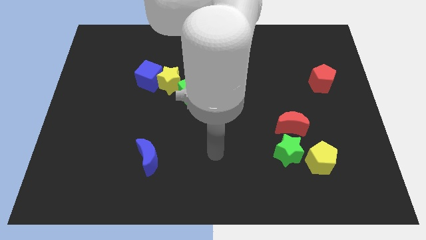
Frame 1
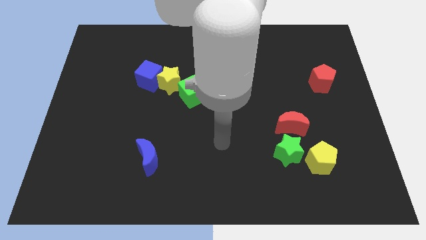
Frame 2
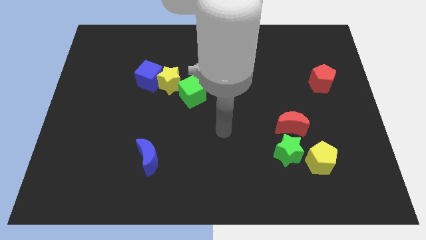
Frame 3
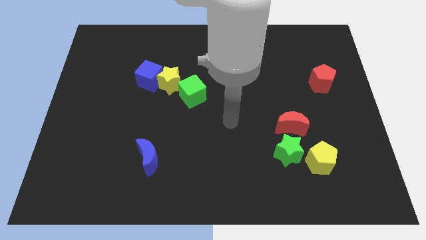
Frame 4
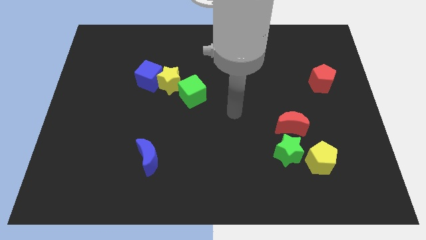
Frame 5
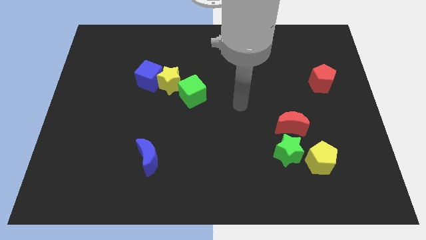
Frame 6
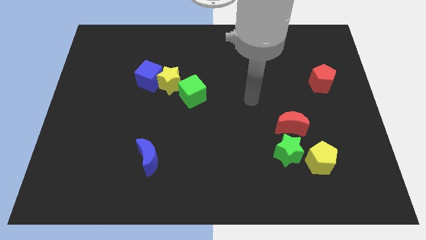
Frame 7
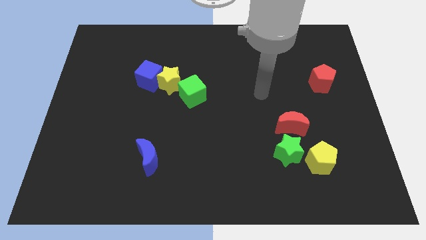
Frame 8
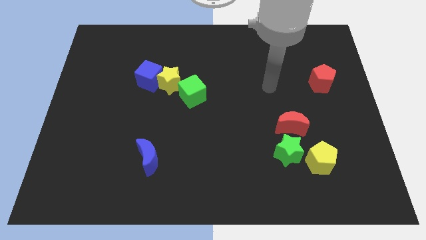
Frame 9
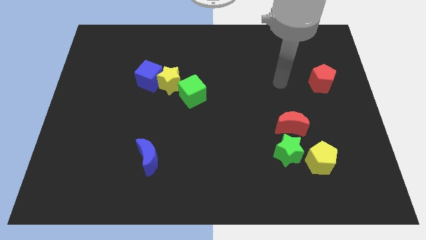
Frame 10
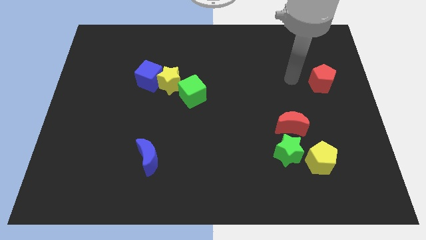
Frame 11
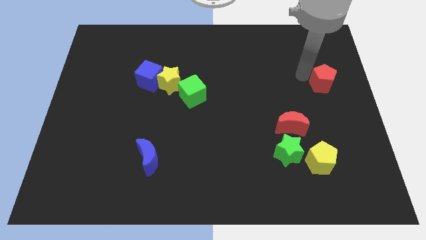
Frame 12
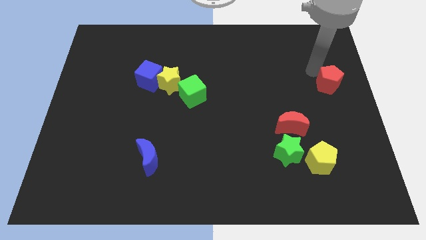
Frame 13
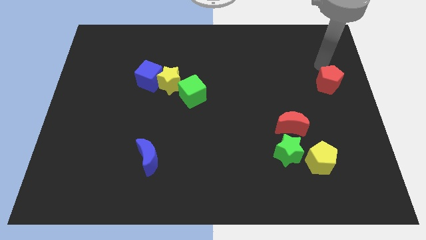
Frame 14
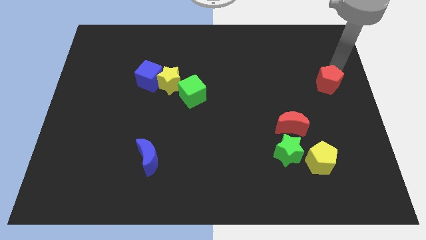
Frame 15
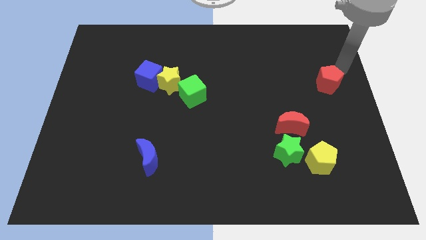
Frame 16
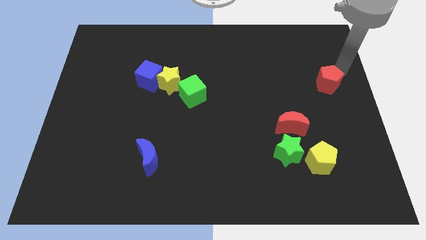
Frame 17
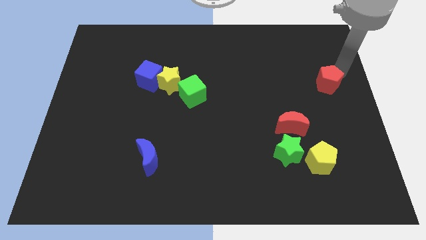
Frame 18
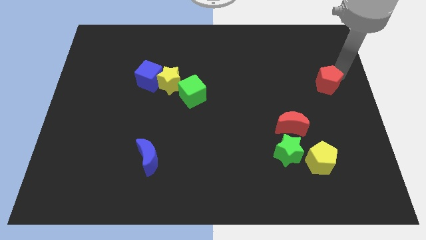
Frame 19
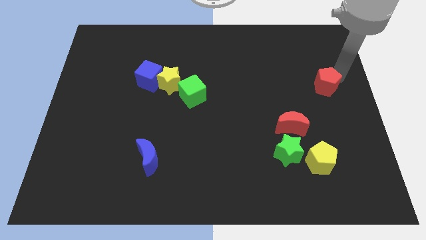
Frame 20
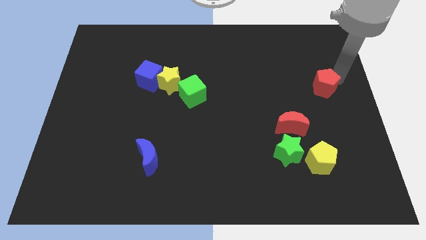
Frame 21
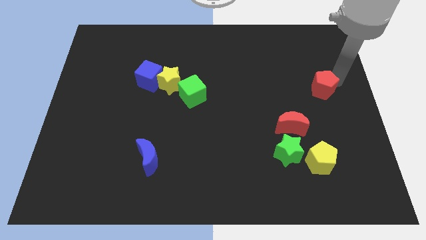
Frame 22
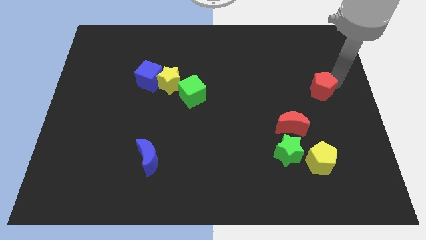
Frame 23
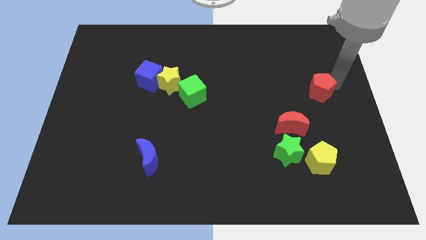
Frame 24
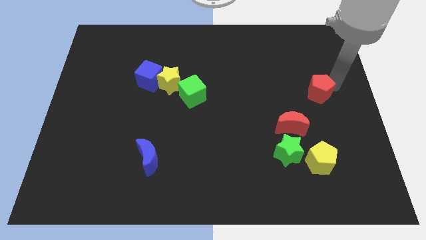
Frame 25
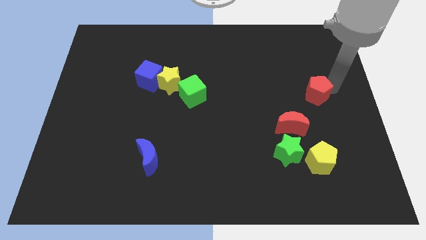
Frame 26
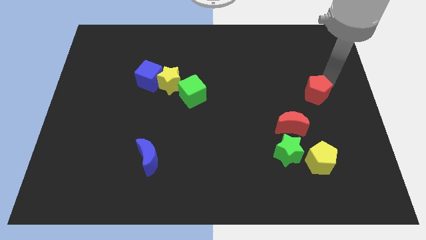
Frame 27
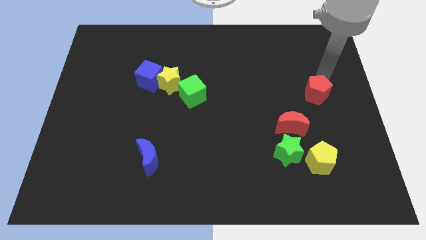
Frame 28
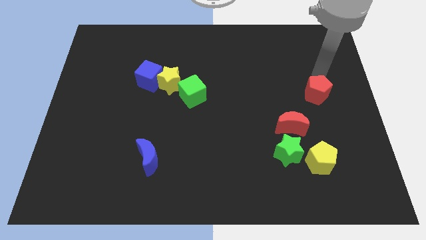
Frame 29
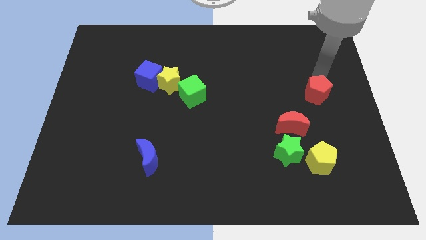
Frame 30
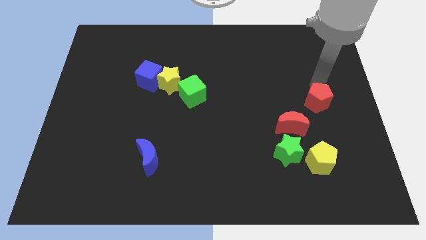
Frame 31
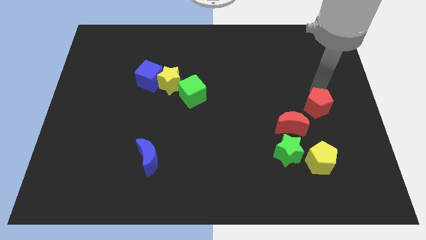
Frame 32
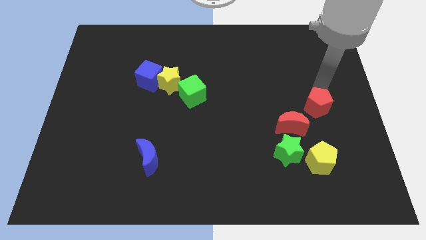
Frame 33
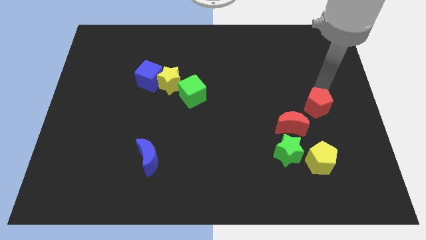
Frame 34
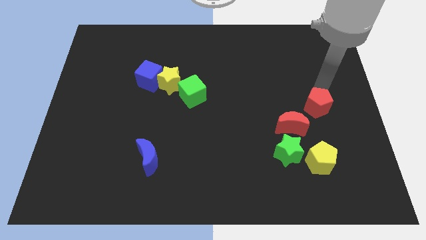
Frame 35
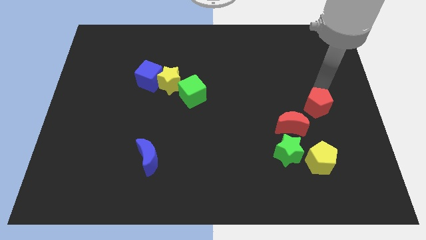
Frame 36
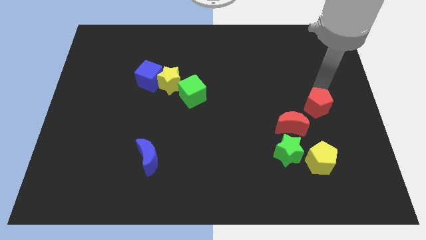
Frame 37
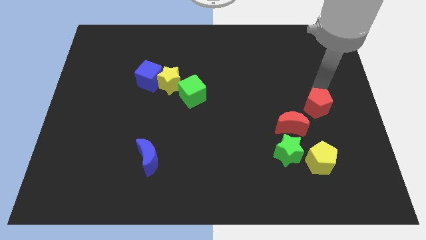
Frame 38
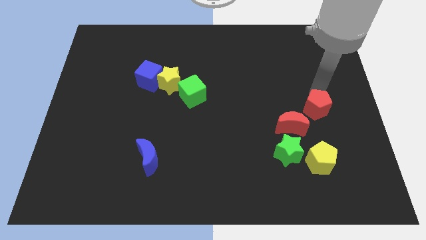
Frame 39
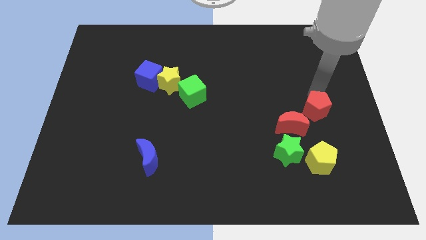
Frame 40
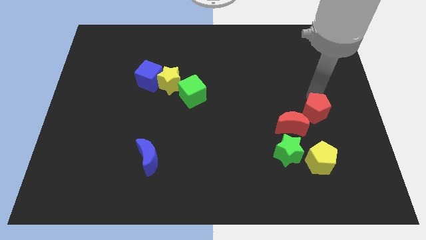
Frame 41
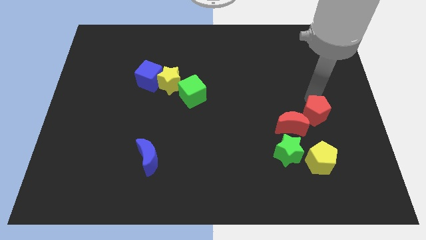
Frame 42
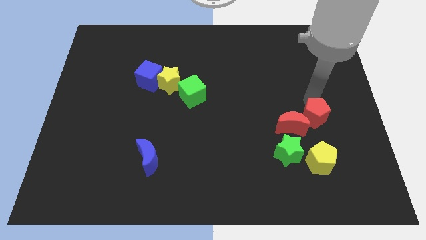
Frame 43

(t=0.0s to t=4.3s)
push the red pentagon to the top right of the green star

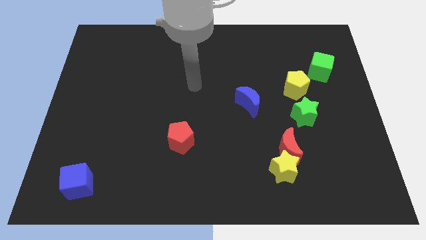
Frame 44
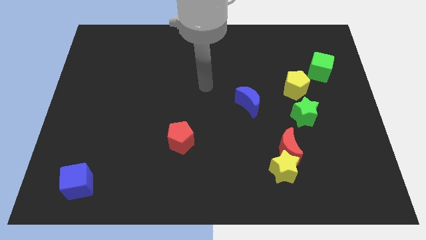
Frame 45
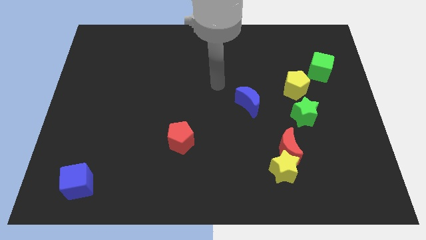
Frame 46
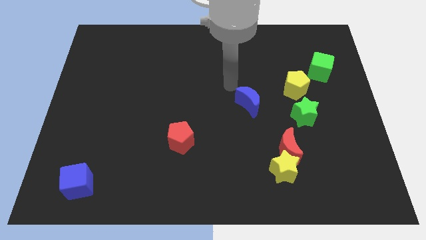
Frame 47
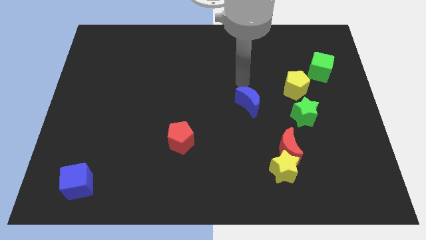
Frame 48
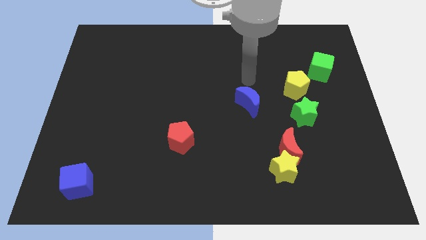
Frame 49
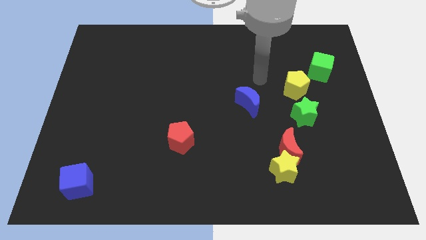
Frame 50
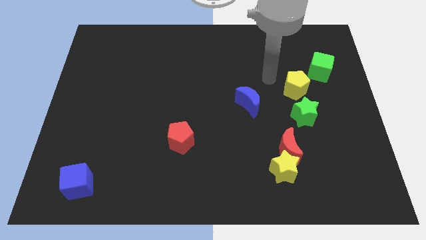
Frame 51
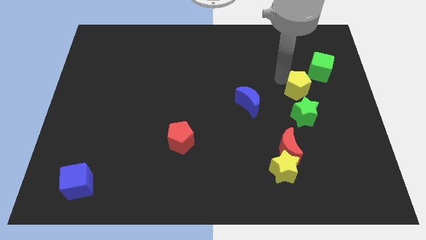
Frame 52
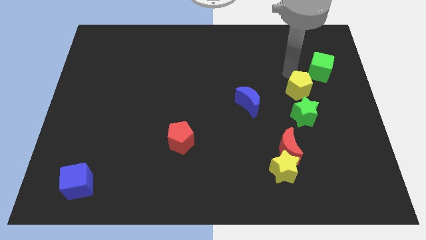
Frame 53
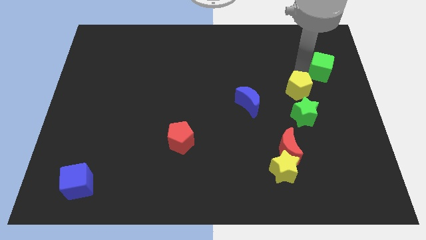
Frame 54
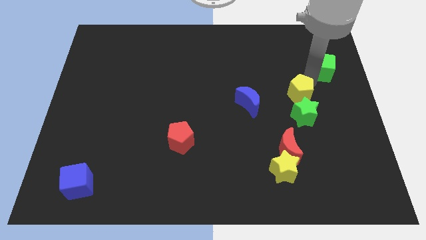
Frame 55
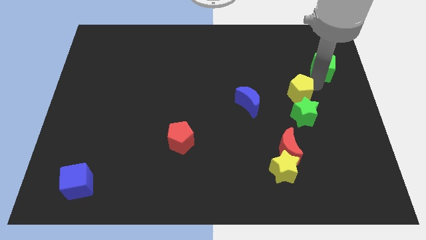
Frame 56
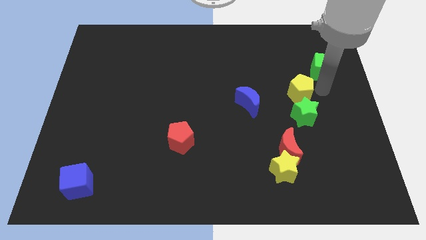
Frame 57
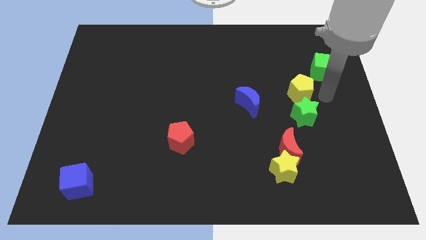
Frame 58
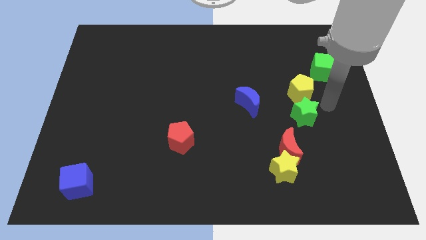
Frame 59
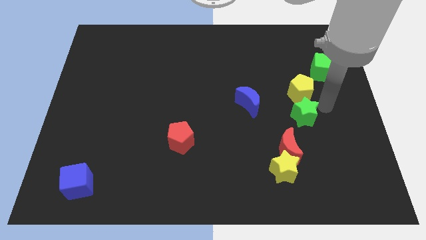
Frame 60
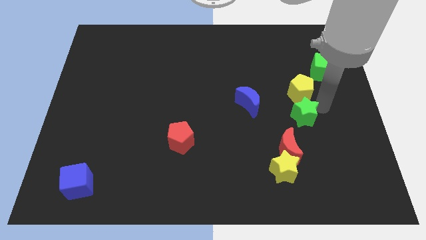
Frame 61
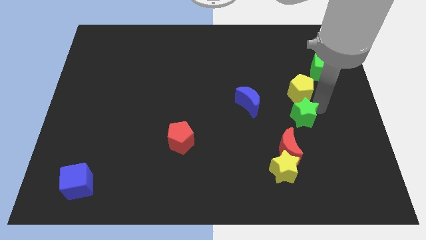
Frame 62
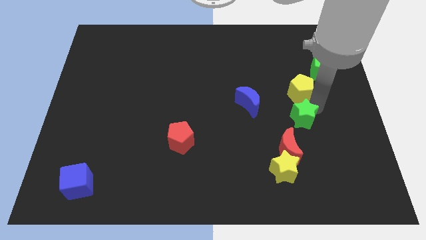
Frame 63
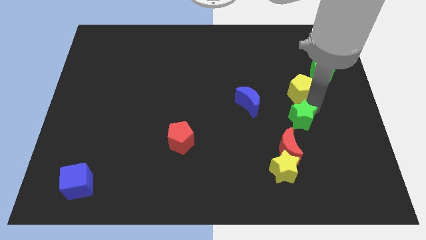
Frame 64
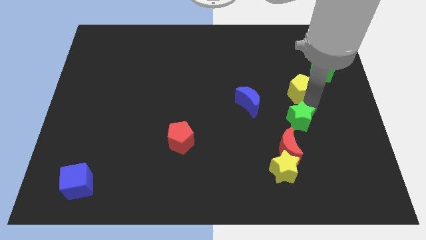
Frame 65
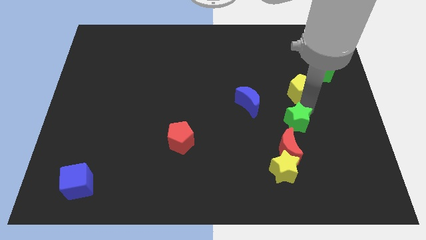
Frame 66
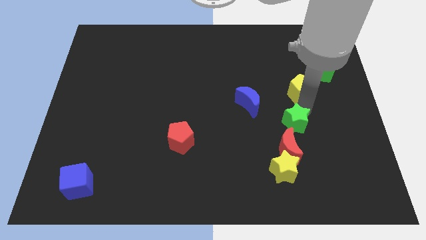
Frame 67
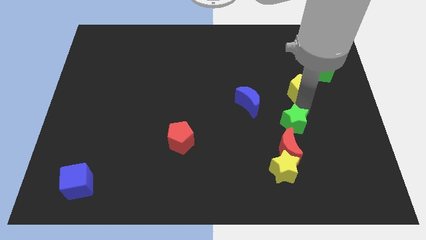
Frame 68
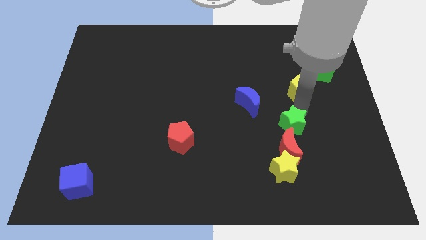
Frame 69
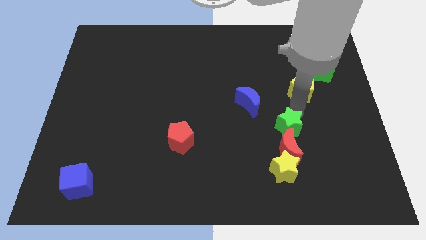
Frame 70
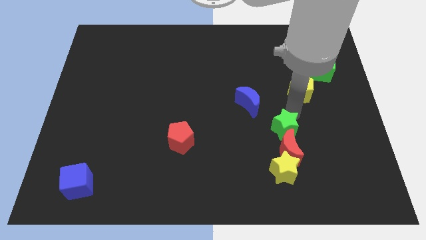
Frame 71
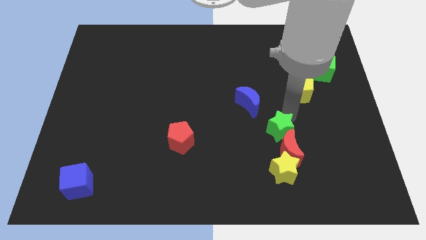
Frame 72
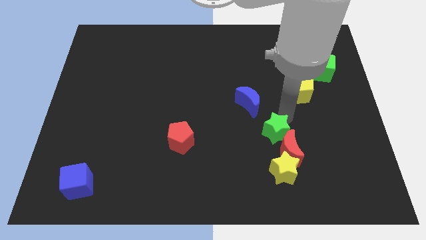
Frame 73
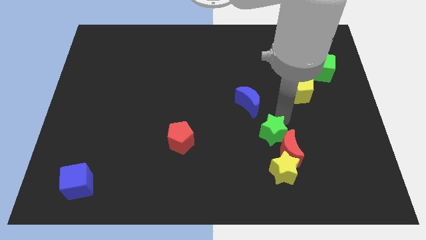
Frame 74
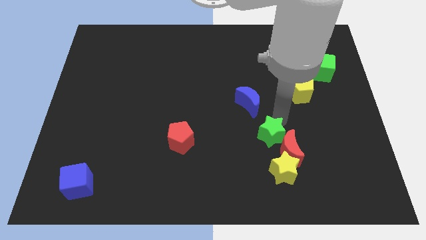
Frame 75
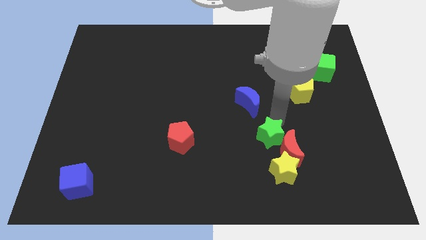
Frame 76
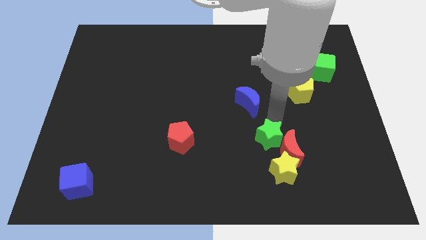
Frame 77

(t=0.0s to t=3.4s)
push the green star to the top left side of the yellow star
